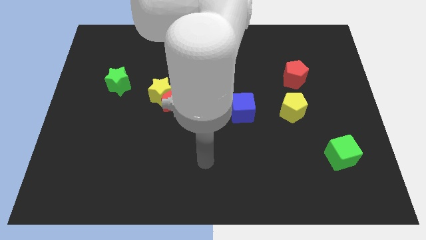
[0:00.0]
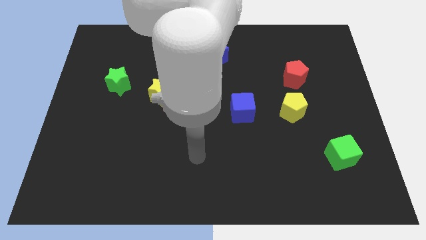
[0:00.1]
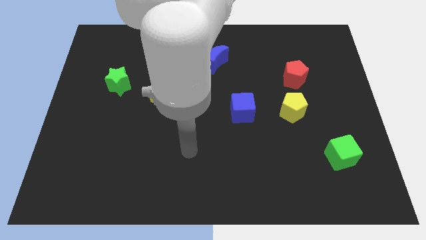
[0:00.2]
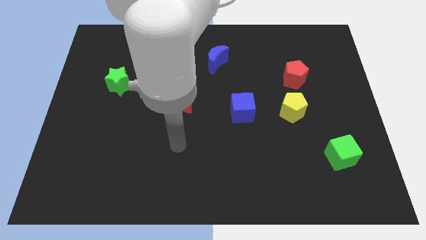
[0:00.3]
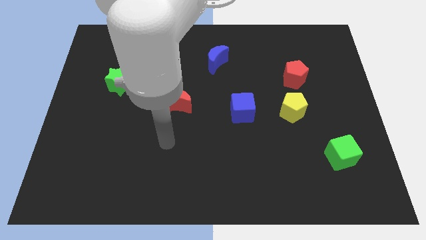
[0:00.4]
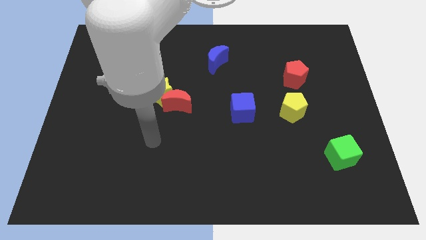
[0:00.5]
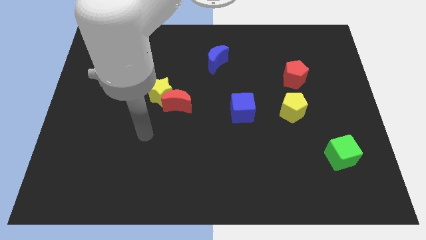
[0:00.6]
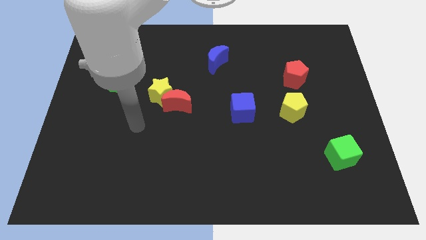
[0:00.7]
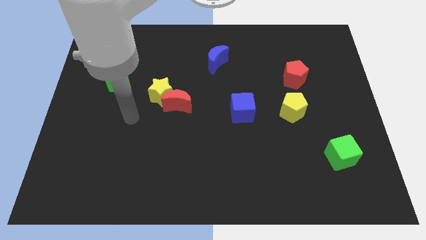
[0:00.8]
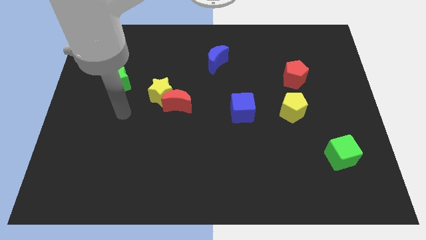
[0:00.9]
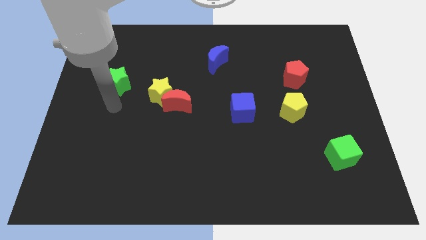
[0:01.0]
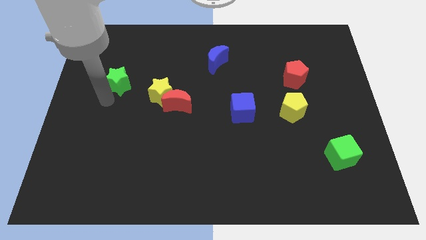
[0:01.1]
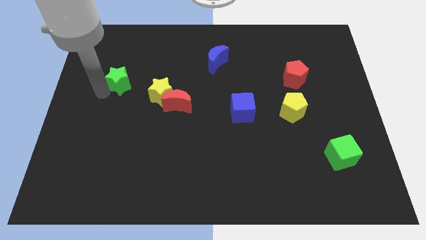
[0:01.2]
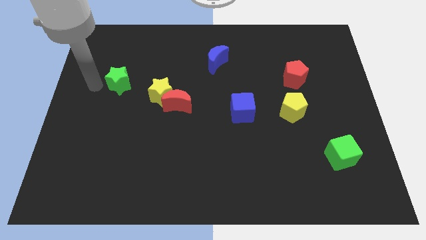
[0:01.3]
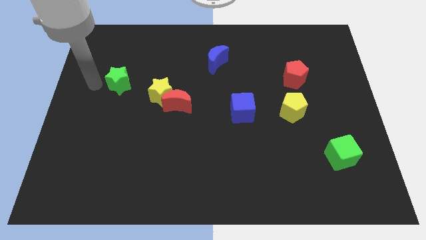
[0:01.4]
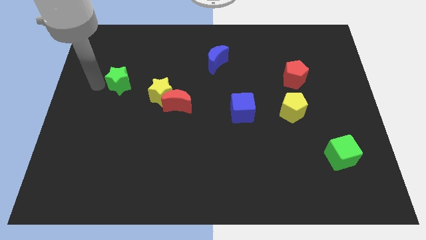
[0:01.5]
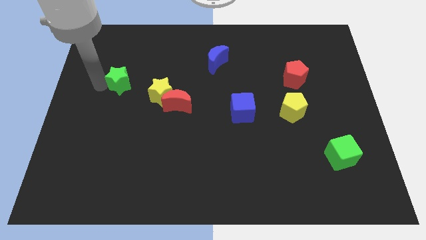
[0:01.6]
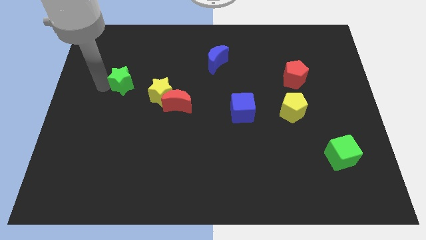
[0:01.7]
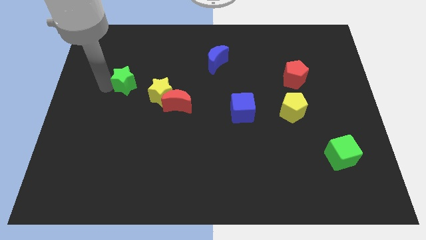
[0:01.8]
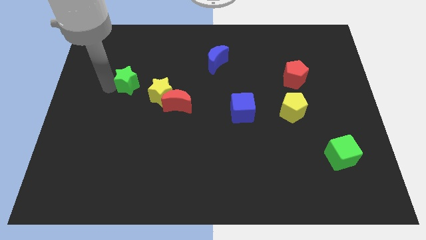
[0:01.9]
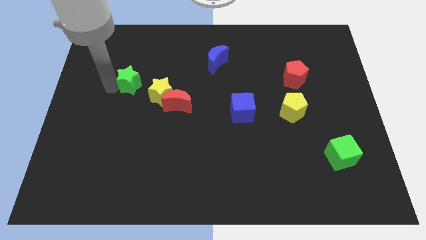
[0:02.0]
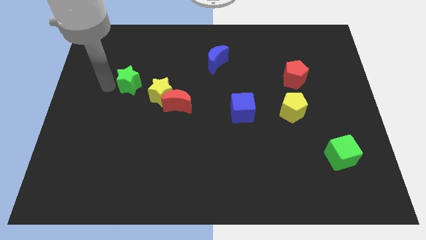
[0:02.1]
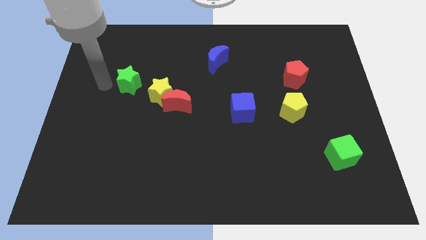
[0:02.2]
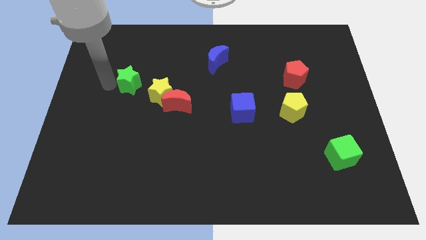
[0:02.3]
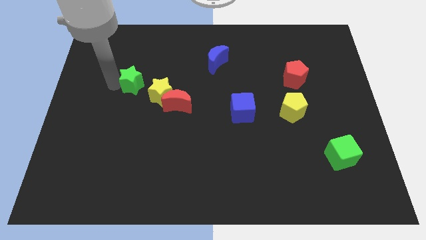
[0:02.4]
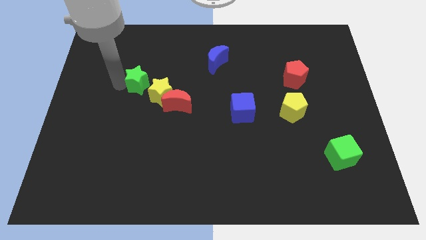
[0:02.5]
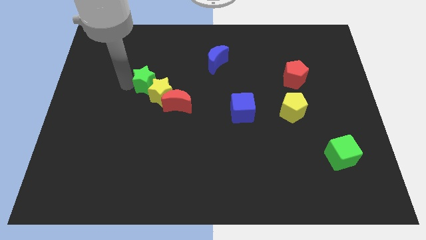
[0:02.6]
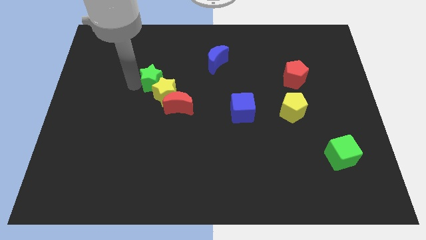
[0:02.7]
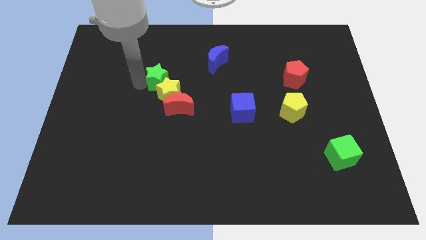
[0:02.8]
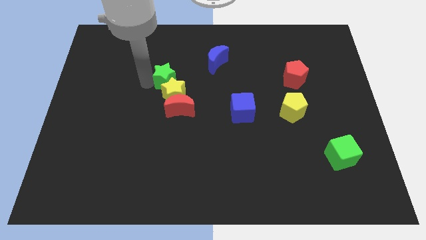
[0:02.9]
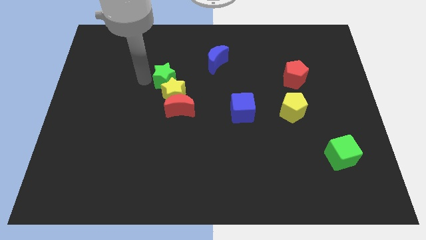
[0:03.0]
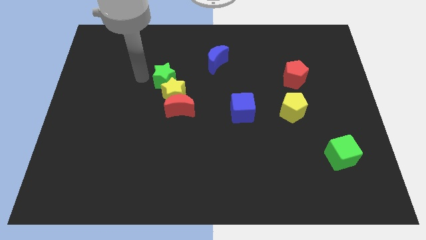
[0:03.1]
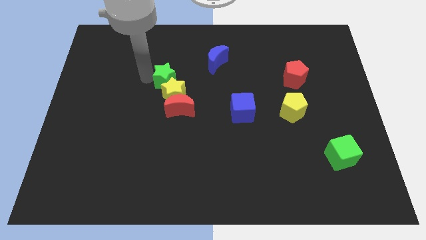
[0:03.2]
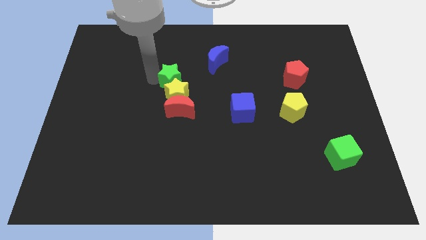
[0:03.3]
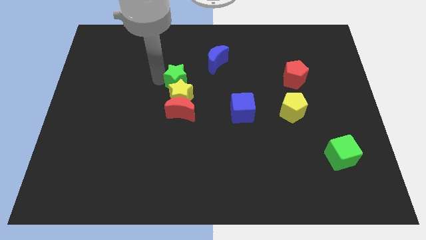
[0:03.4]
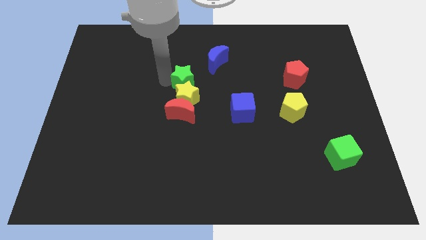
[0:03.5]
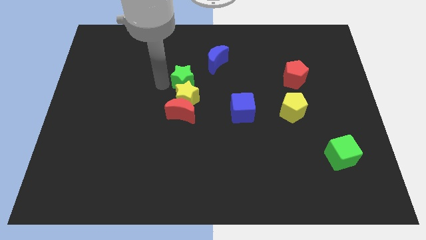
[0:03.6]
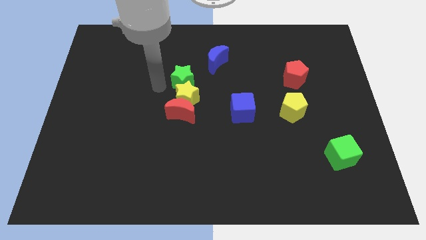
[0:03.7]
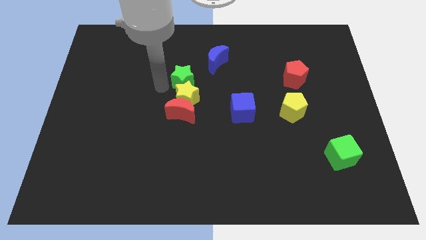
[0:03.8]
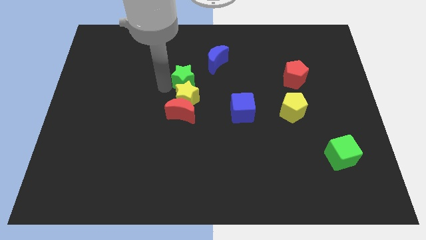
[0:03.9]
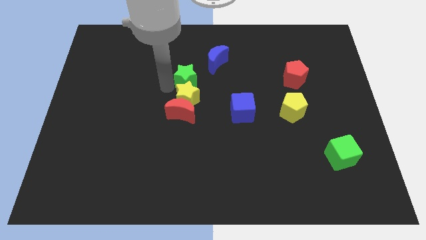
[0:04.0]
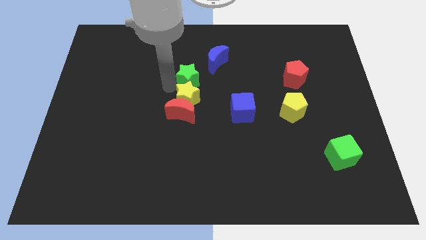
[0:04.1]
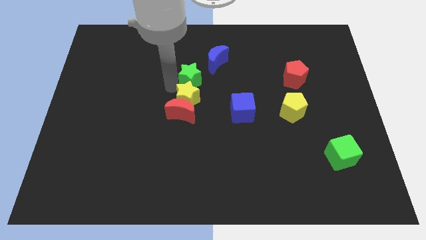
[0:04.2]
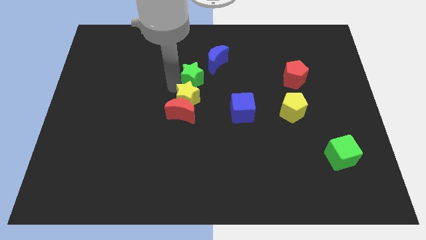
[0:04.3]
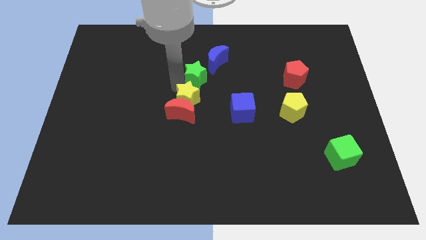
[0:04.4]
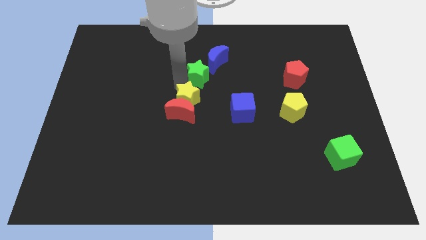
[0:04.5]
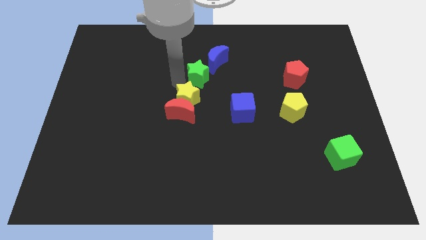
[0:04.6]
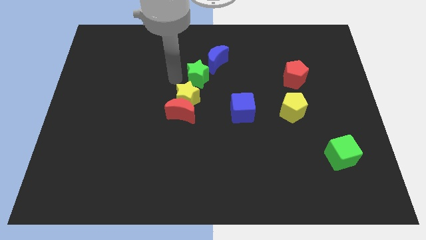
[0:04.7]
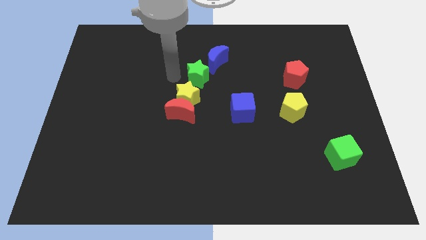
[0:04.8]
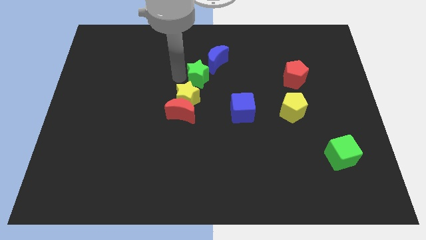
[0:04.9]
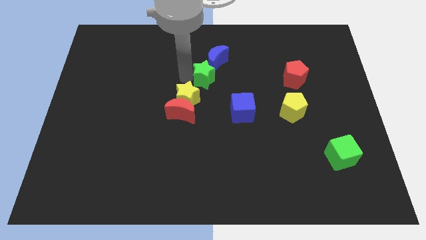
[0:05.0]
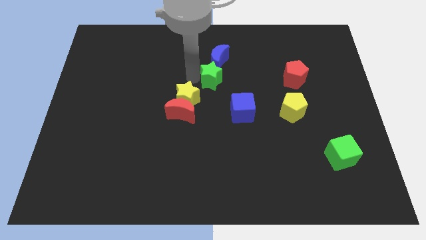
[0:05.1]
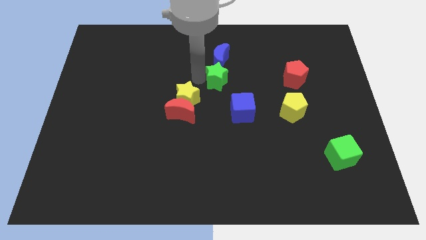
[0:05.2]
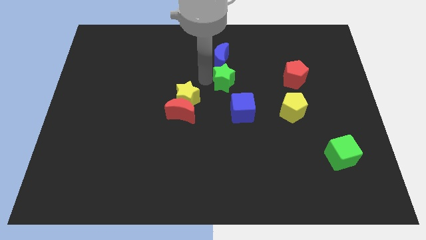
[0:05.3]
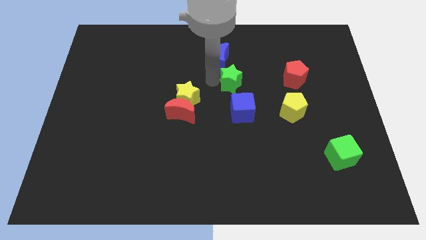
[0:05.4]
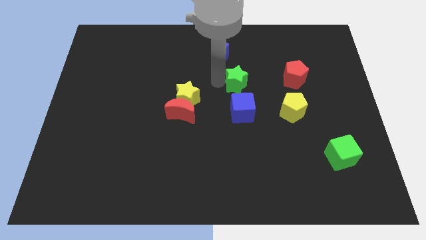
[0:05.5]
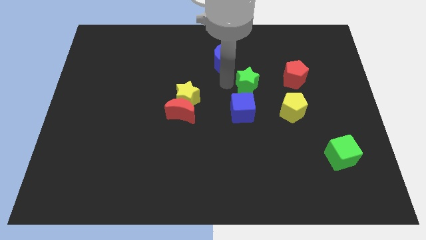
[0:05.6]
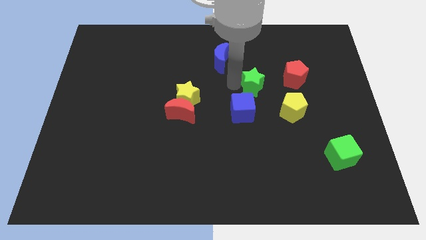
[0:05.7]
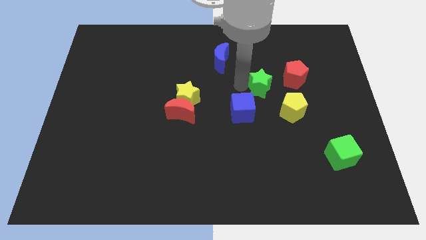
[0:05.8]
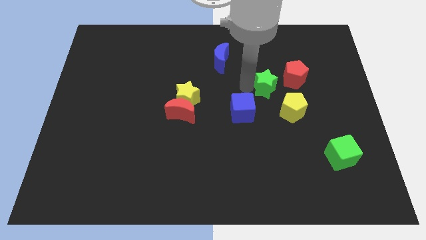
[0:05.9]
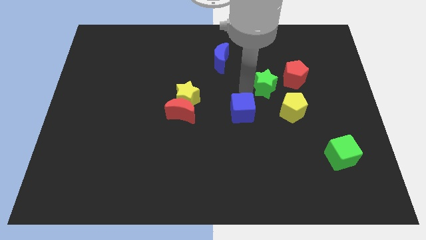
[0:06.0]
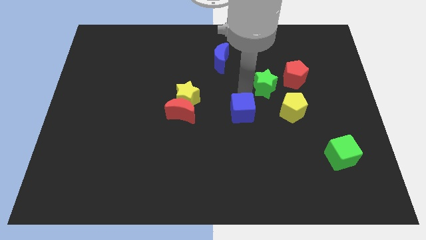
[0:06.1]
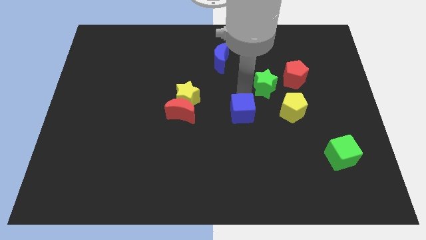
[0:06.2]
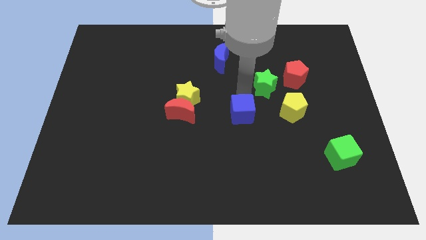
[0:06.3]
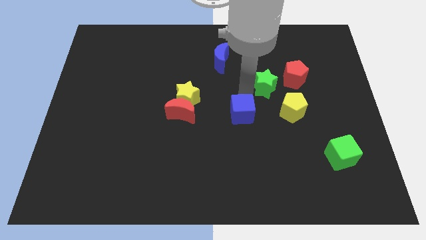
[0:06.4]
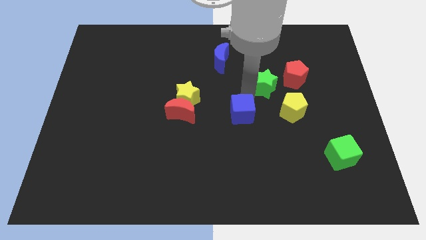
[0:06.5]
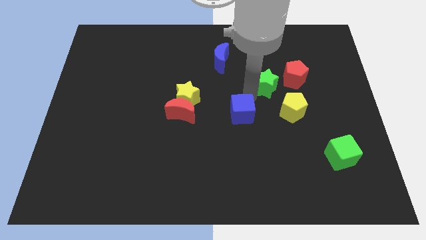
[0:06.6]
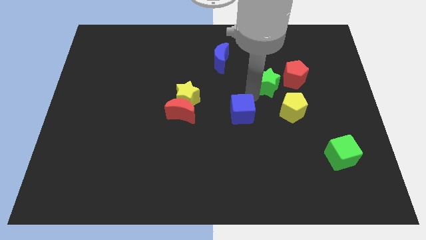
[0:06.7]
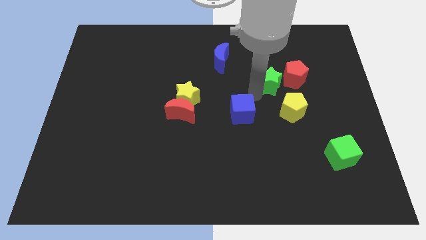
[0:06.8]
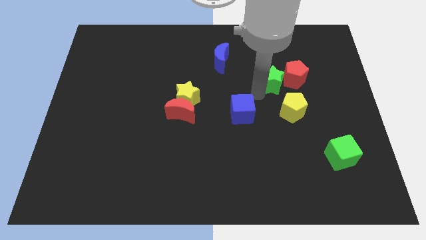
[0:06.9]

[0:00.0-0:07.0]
push the green star close to the red pentagon
